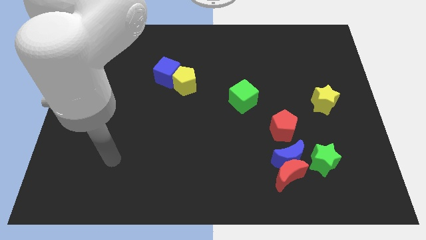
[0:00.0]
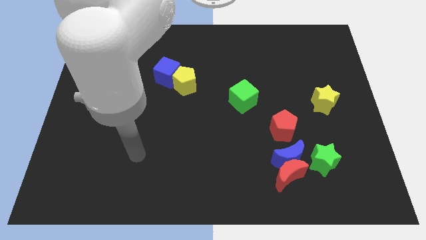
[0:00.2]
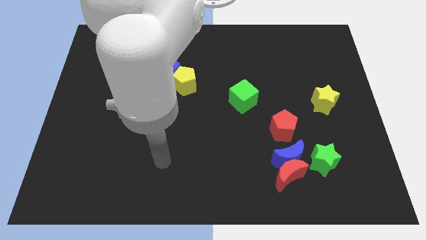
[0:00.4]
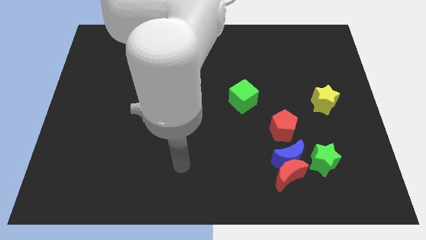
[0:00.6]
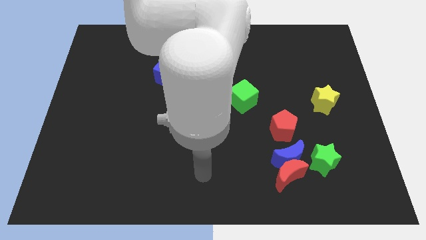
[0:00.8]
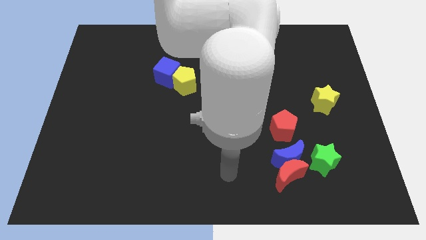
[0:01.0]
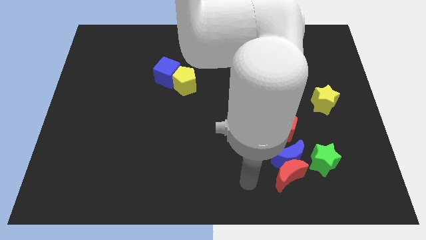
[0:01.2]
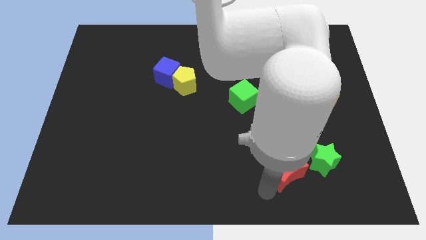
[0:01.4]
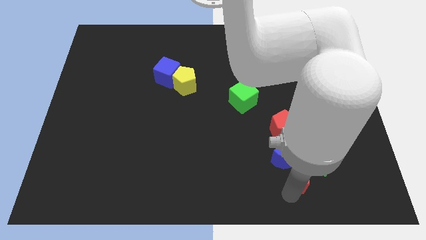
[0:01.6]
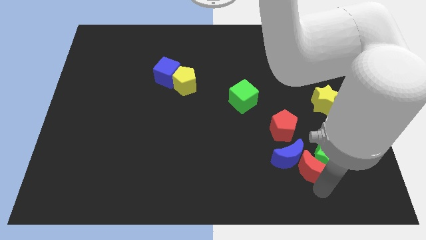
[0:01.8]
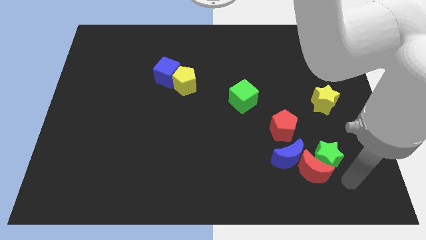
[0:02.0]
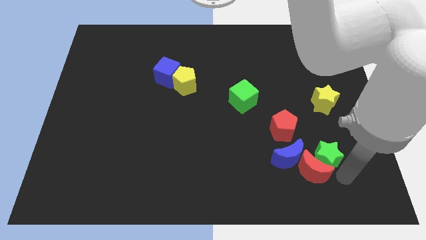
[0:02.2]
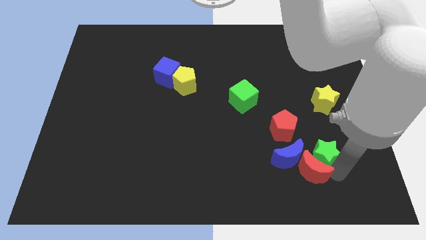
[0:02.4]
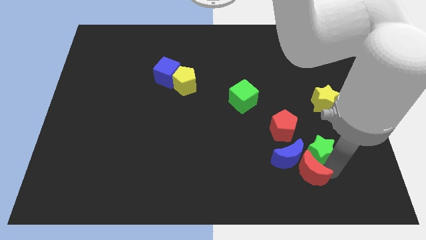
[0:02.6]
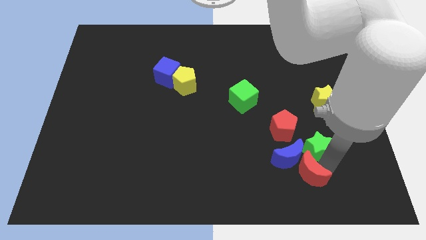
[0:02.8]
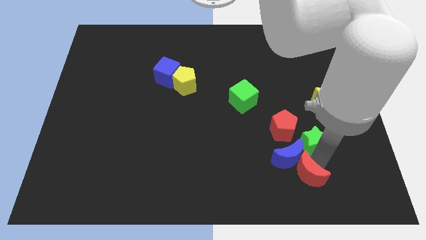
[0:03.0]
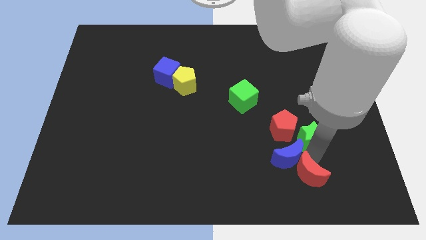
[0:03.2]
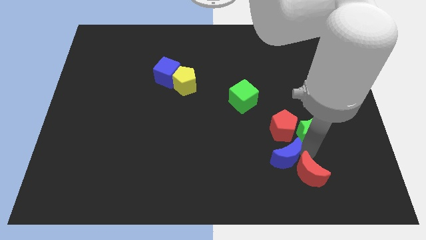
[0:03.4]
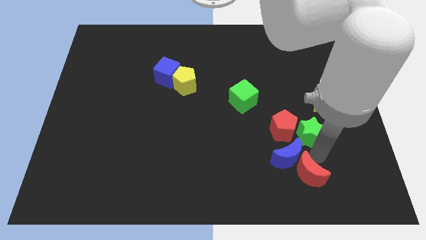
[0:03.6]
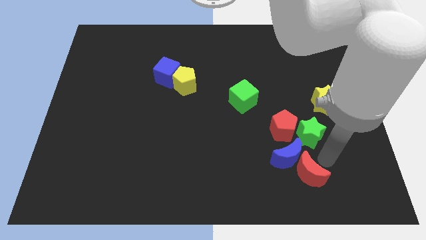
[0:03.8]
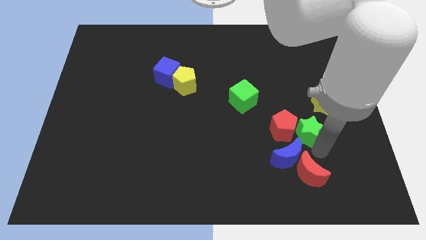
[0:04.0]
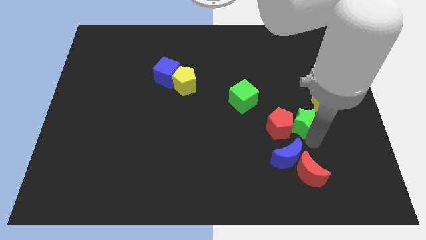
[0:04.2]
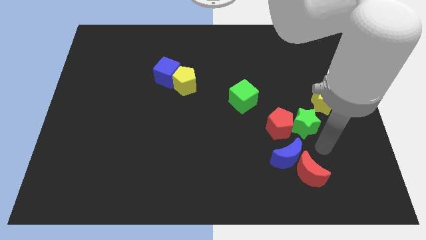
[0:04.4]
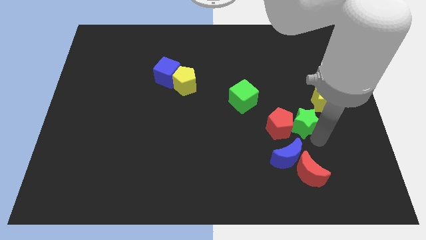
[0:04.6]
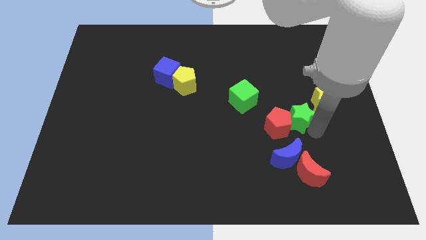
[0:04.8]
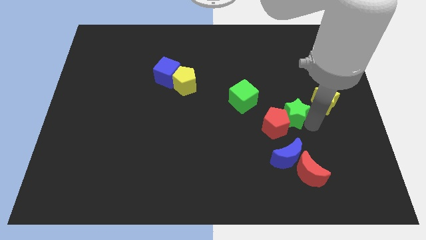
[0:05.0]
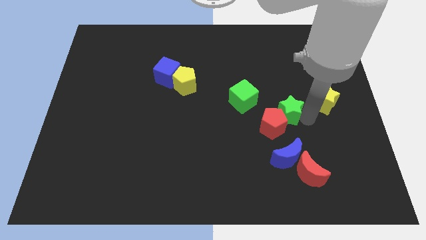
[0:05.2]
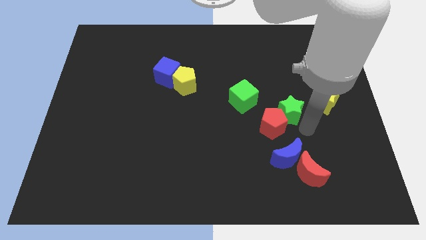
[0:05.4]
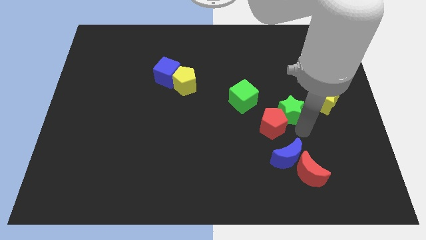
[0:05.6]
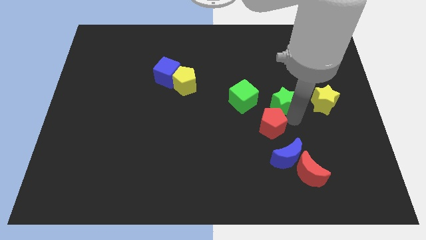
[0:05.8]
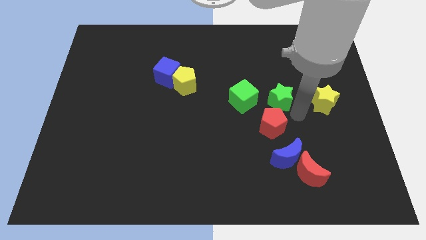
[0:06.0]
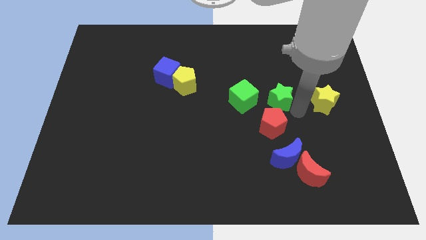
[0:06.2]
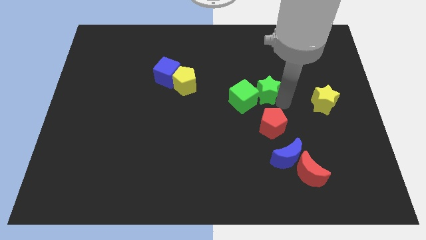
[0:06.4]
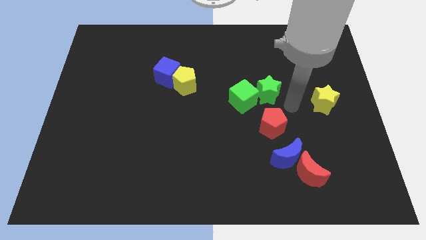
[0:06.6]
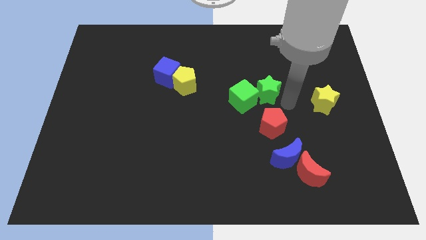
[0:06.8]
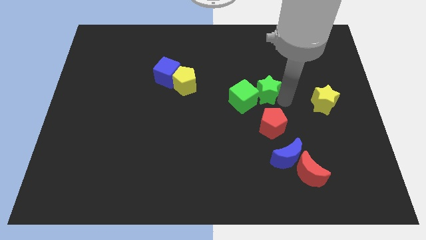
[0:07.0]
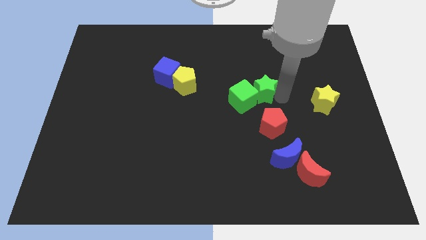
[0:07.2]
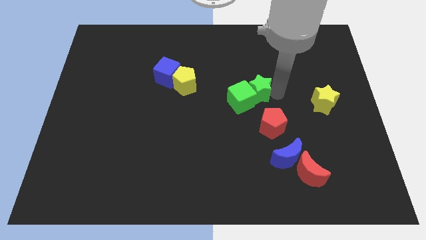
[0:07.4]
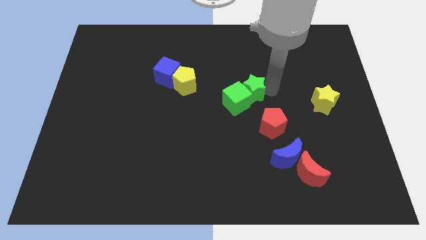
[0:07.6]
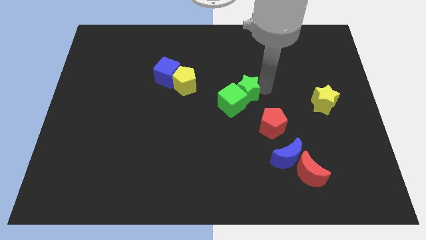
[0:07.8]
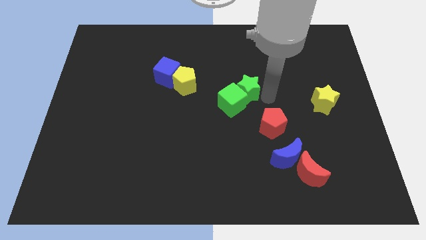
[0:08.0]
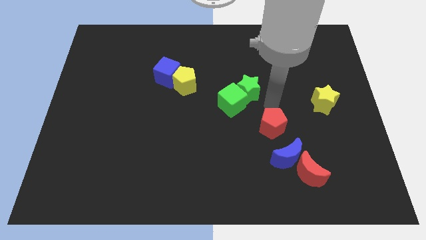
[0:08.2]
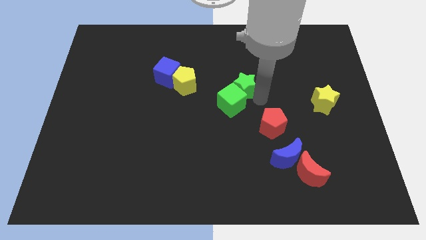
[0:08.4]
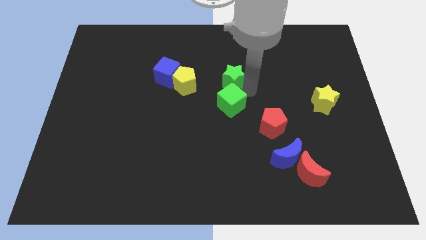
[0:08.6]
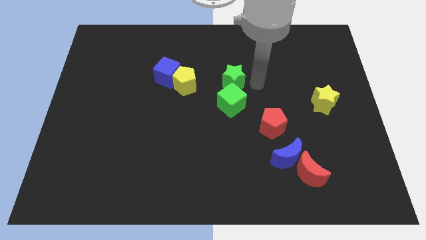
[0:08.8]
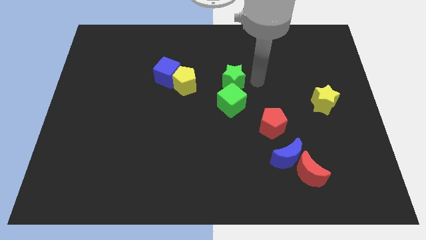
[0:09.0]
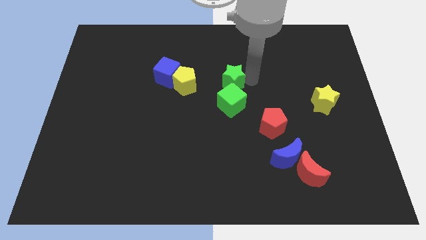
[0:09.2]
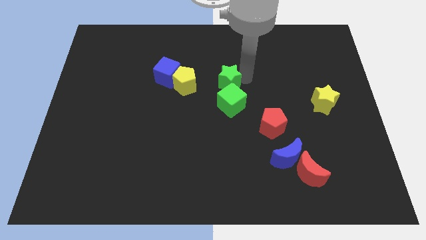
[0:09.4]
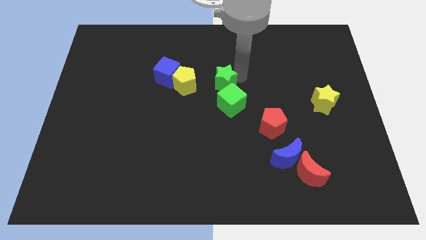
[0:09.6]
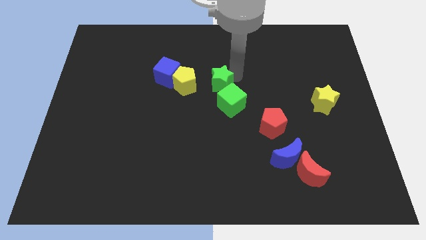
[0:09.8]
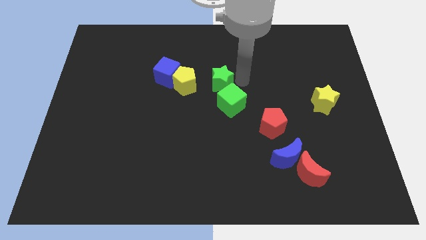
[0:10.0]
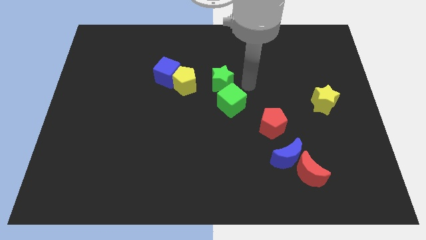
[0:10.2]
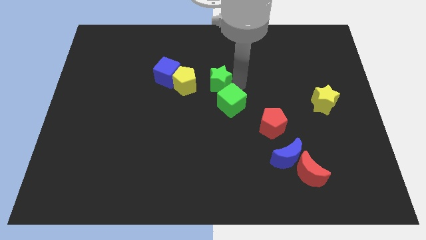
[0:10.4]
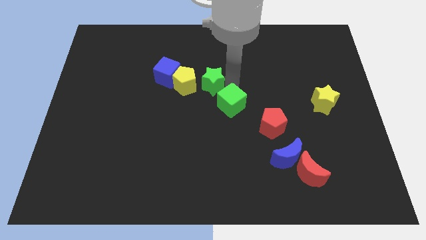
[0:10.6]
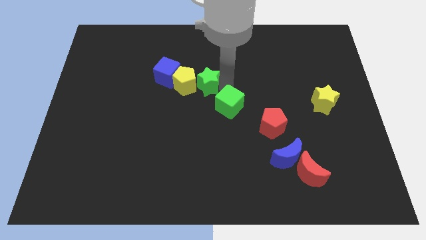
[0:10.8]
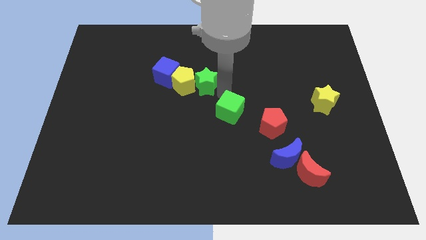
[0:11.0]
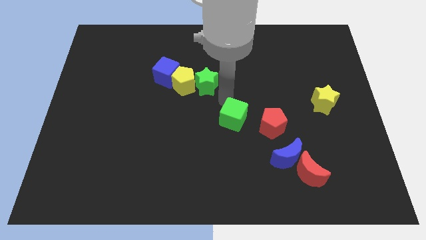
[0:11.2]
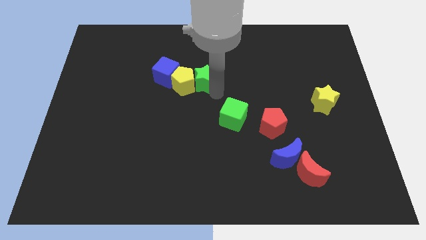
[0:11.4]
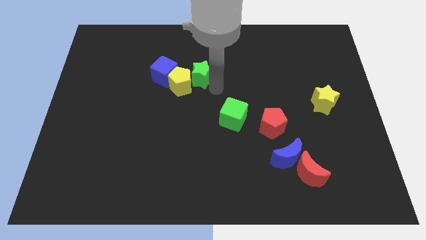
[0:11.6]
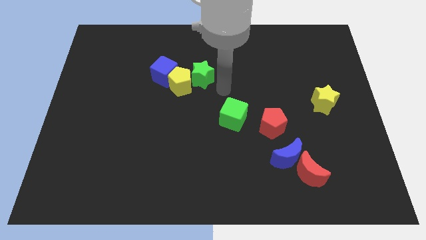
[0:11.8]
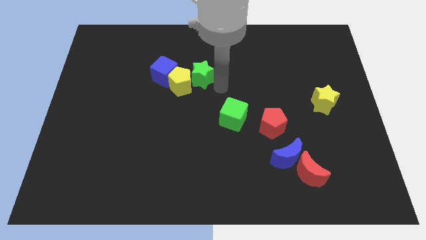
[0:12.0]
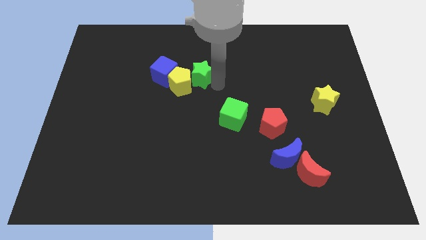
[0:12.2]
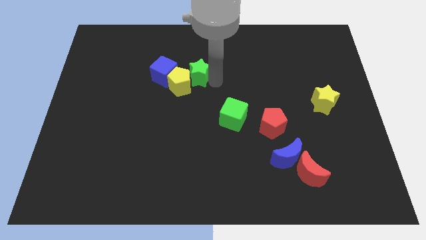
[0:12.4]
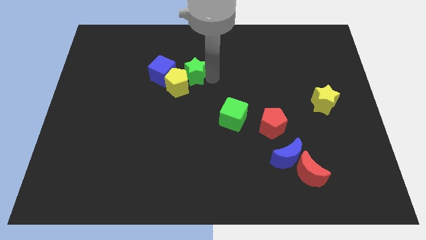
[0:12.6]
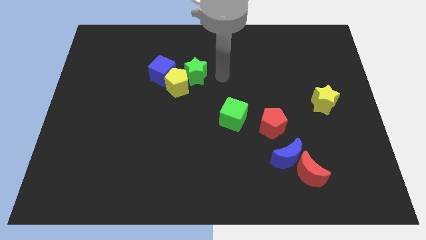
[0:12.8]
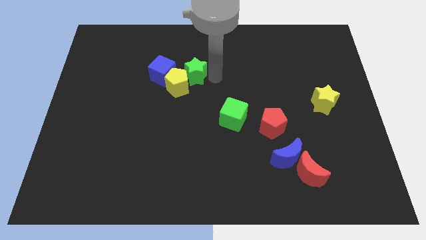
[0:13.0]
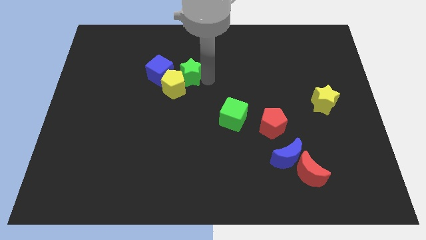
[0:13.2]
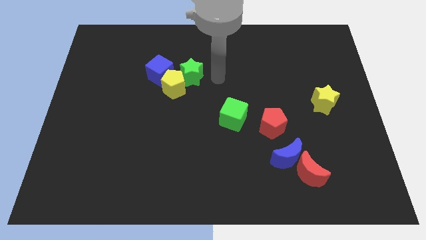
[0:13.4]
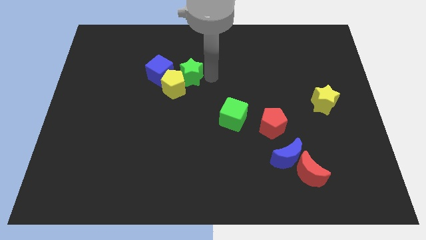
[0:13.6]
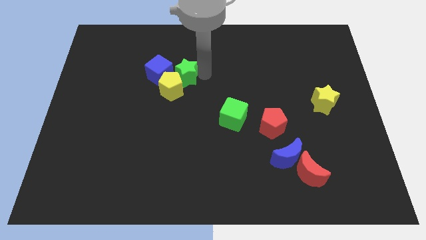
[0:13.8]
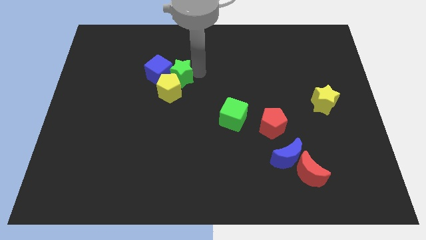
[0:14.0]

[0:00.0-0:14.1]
put the green star to the blue cube

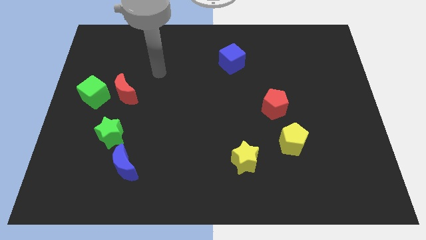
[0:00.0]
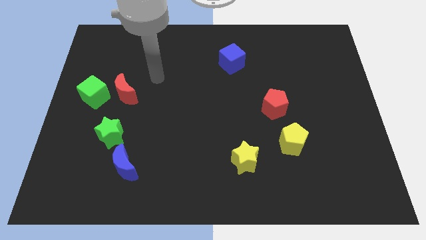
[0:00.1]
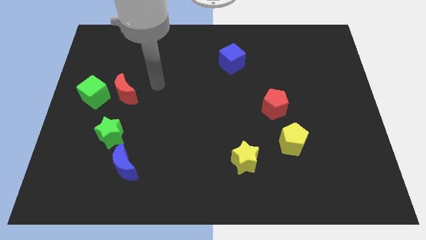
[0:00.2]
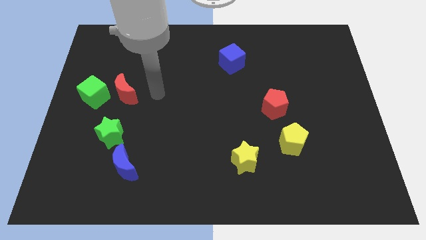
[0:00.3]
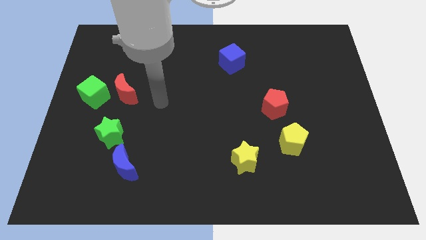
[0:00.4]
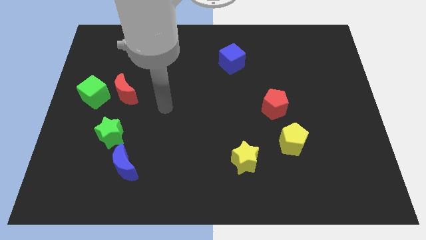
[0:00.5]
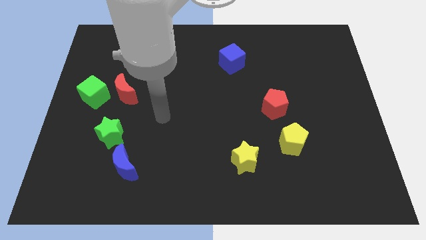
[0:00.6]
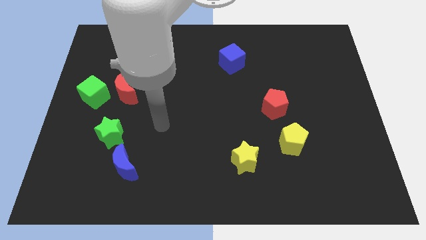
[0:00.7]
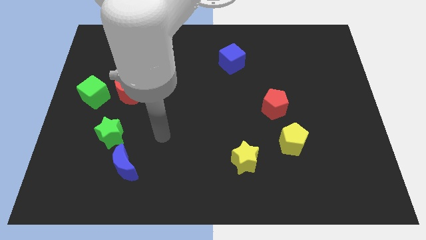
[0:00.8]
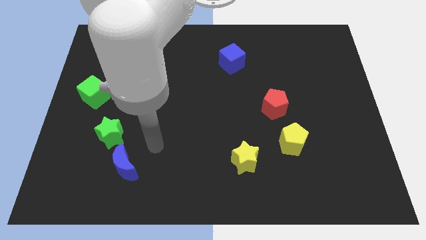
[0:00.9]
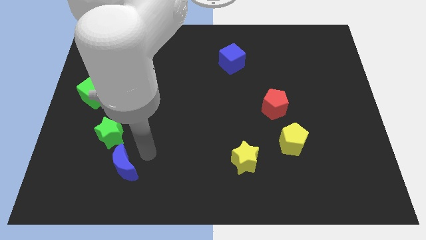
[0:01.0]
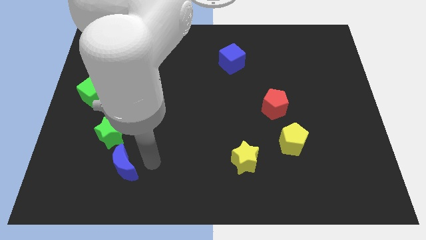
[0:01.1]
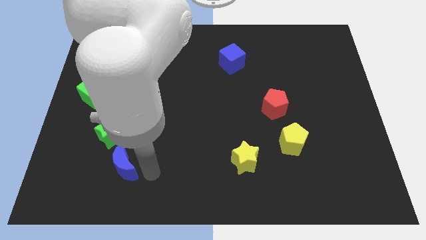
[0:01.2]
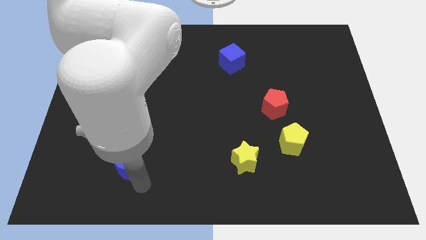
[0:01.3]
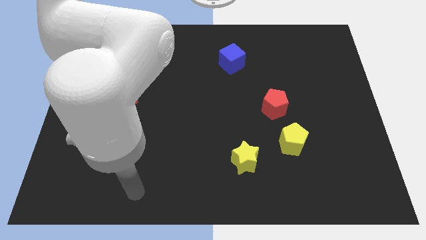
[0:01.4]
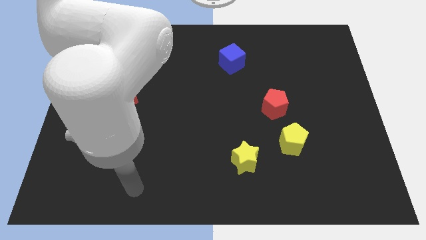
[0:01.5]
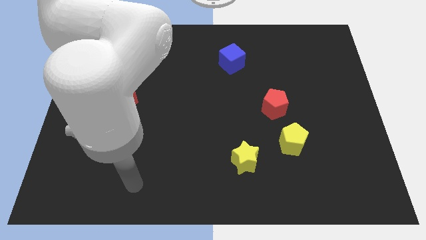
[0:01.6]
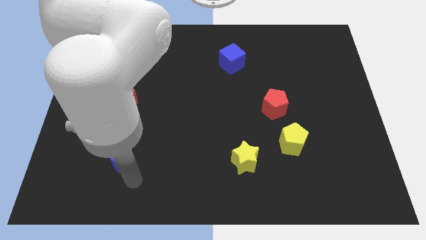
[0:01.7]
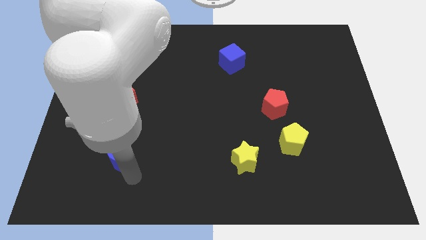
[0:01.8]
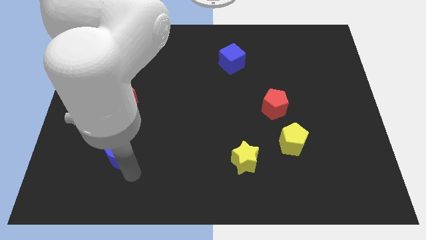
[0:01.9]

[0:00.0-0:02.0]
slide the blue moon to the green star
